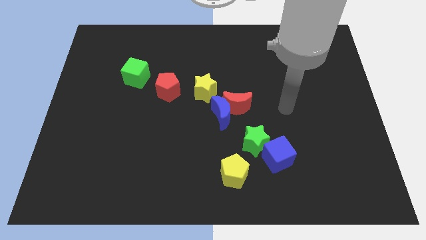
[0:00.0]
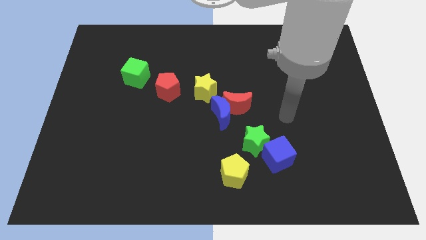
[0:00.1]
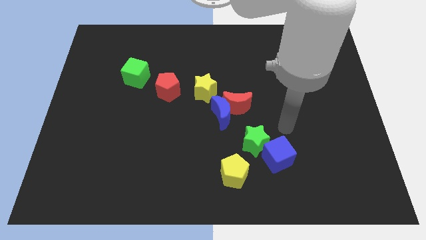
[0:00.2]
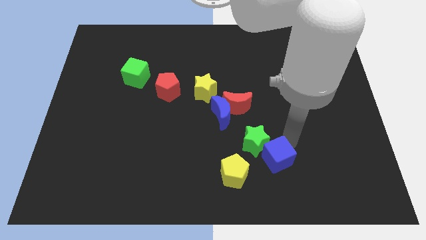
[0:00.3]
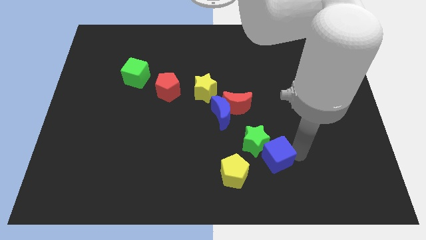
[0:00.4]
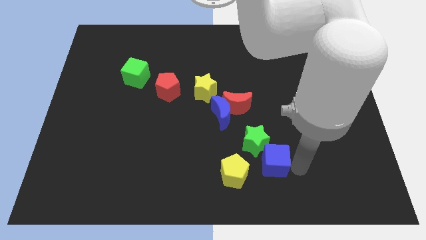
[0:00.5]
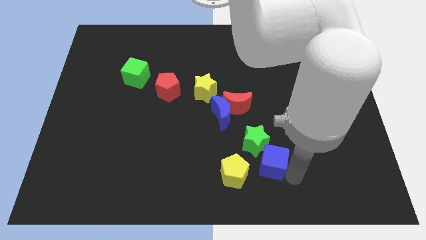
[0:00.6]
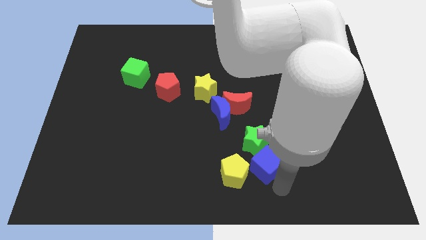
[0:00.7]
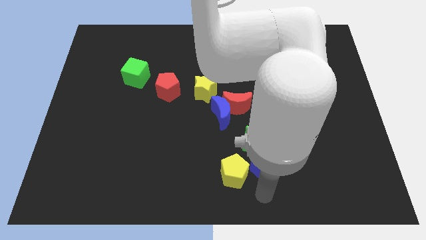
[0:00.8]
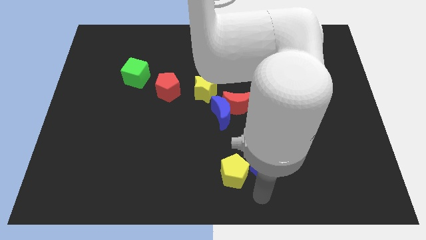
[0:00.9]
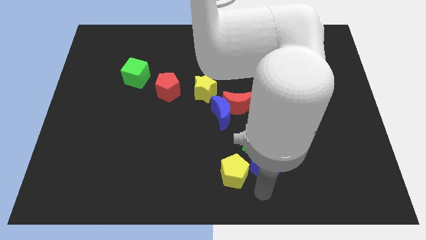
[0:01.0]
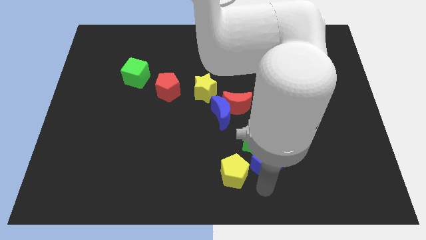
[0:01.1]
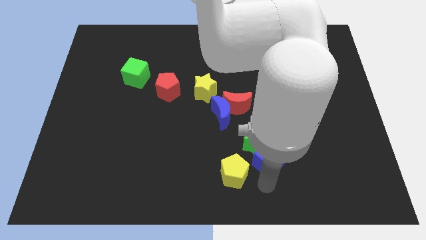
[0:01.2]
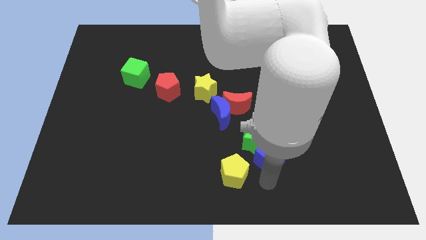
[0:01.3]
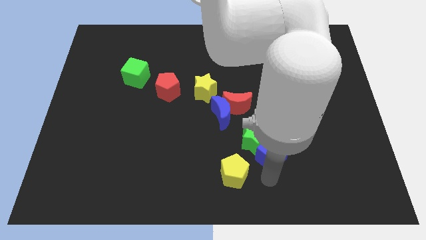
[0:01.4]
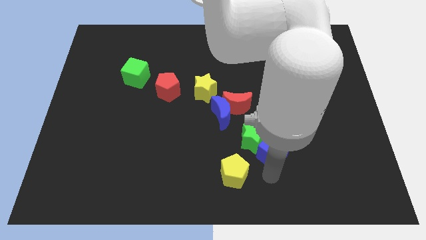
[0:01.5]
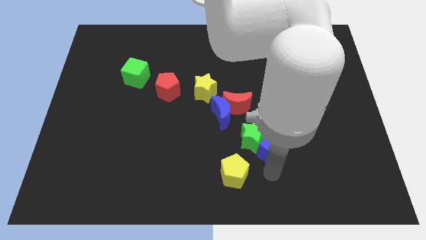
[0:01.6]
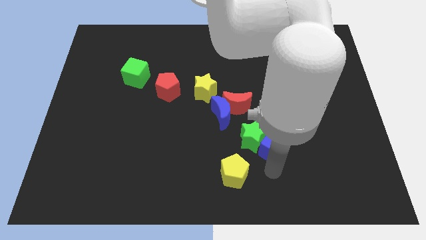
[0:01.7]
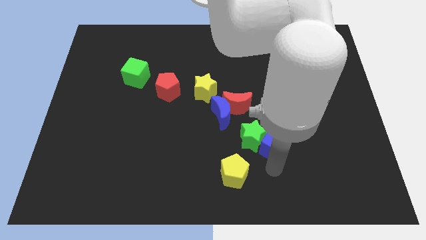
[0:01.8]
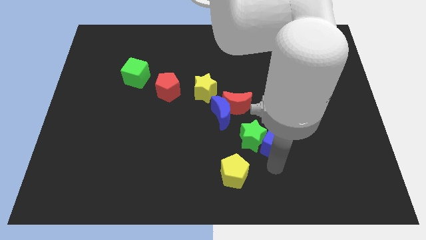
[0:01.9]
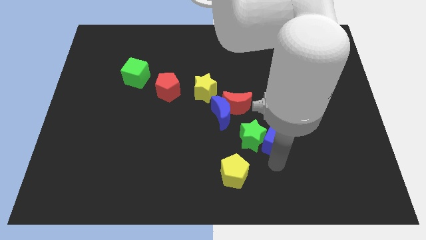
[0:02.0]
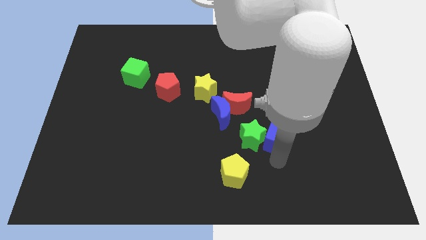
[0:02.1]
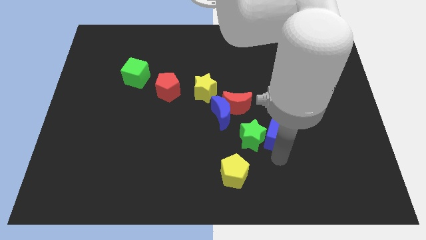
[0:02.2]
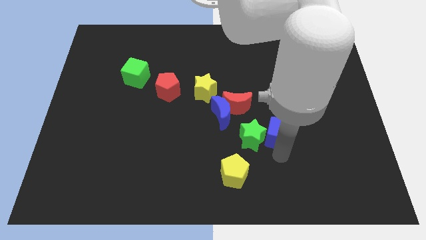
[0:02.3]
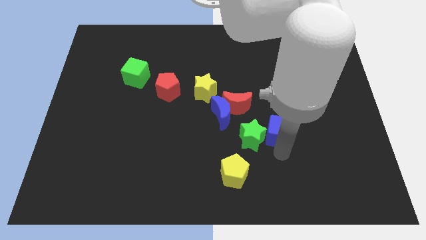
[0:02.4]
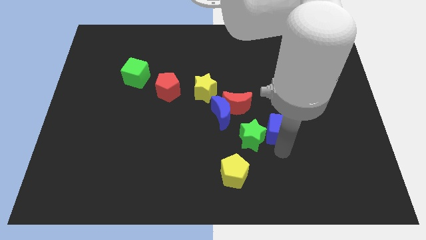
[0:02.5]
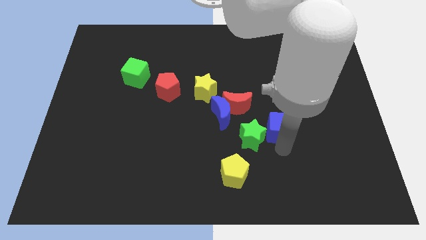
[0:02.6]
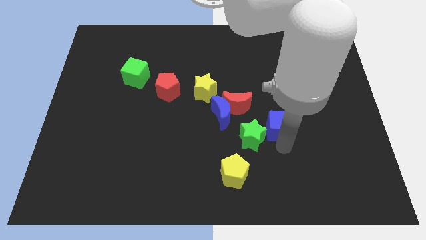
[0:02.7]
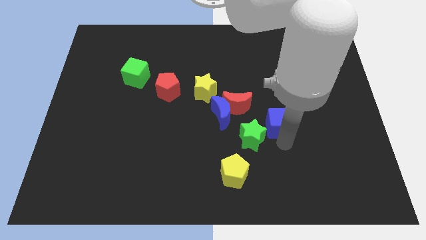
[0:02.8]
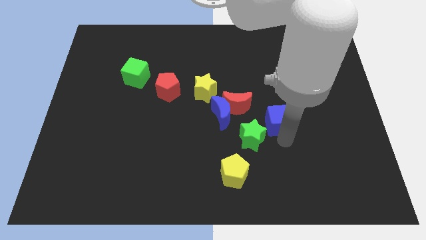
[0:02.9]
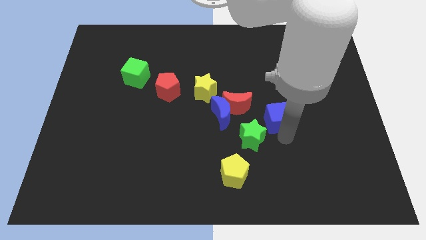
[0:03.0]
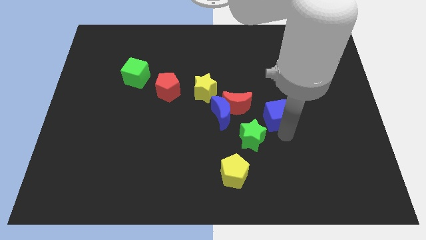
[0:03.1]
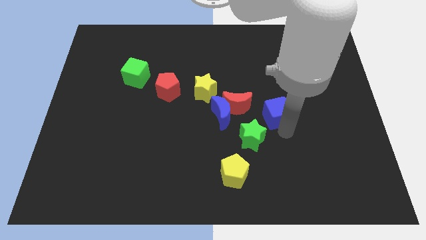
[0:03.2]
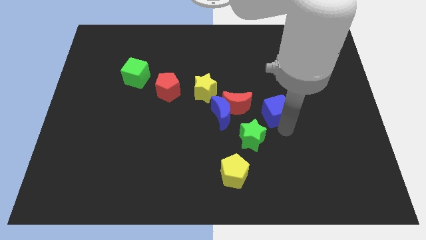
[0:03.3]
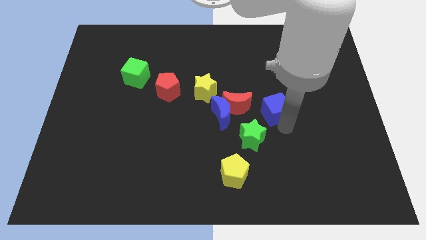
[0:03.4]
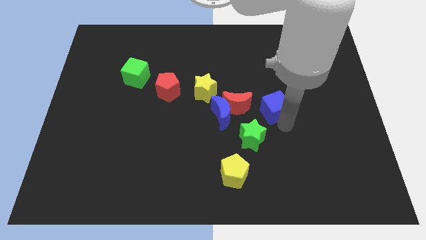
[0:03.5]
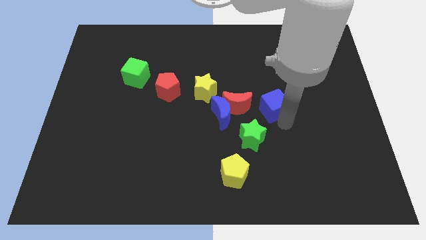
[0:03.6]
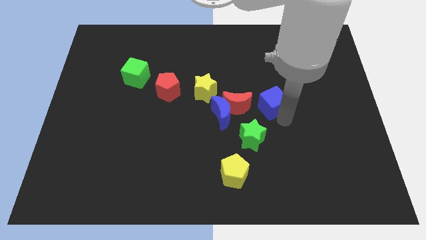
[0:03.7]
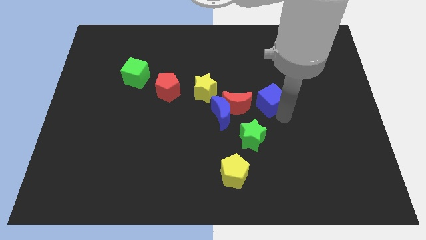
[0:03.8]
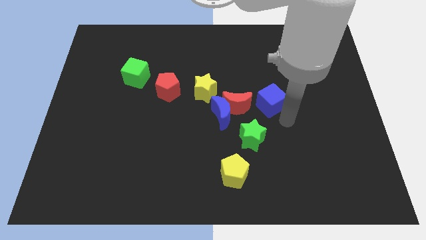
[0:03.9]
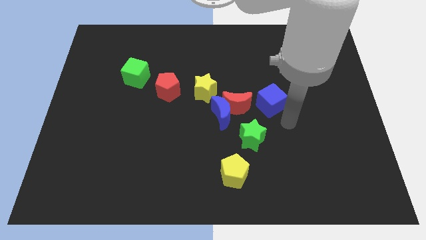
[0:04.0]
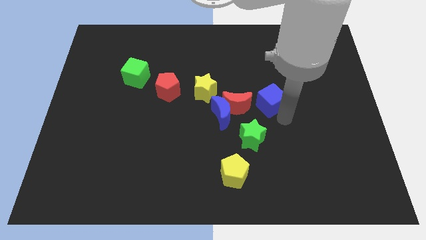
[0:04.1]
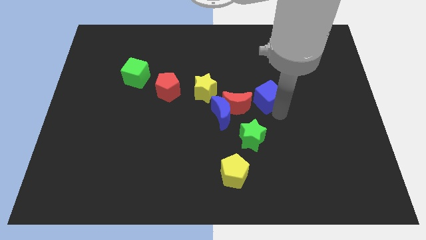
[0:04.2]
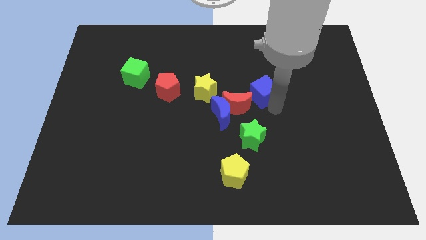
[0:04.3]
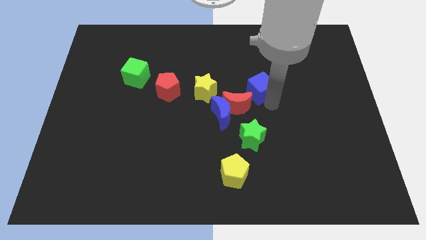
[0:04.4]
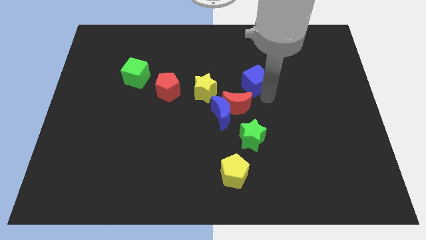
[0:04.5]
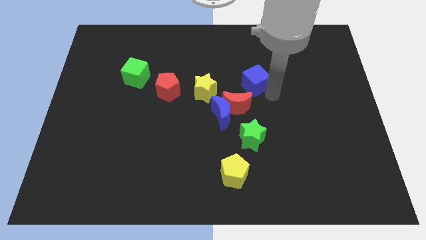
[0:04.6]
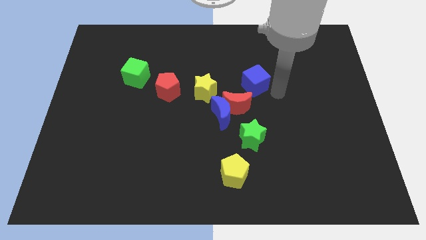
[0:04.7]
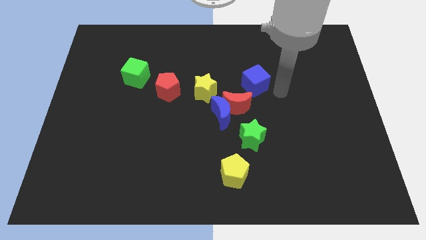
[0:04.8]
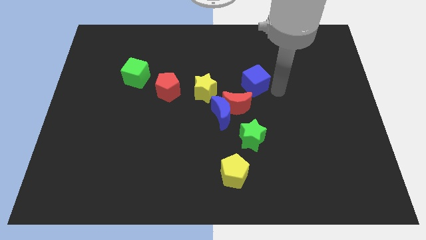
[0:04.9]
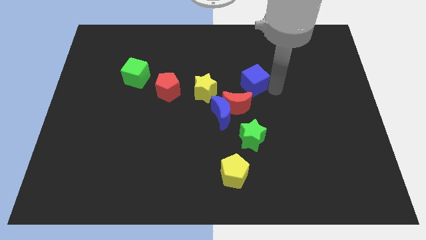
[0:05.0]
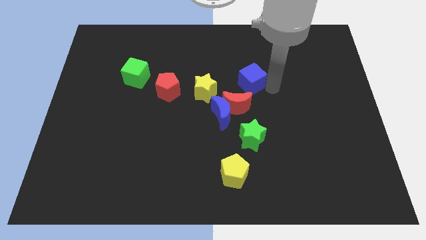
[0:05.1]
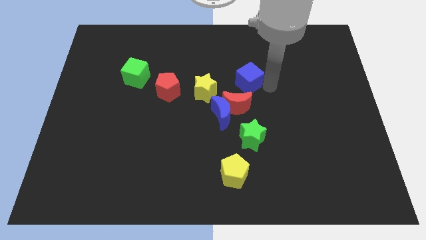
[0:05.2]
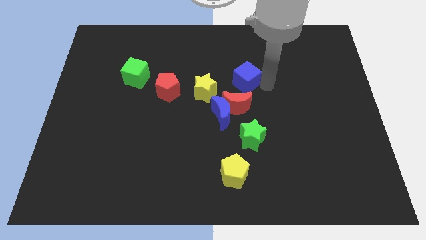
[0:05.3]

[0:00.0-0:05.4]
move the blue cube to the top right side of the yellow star

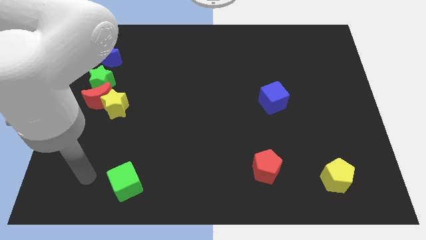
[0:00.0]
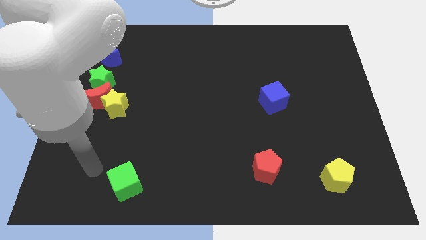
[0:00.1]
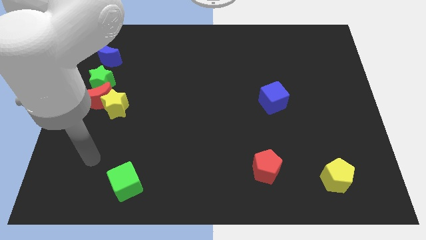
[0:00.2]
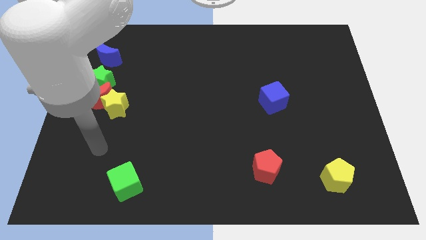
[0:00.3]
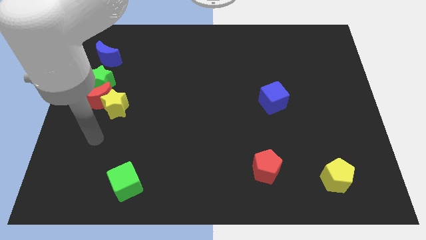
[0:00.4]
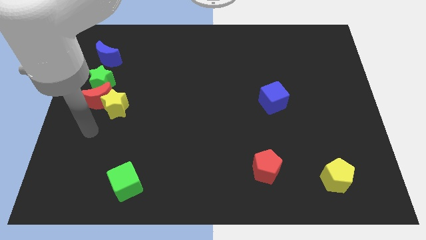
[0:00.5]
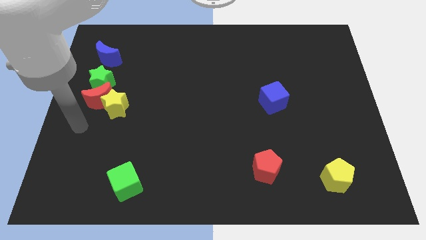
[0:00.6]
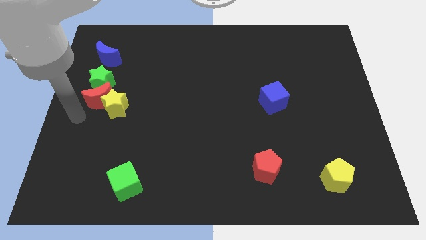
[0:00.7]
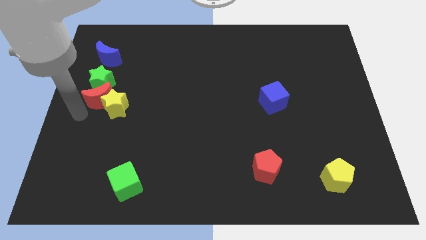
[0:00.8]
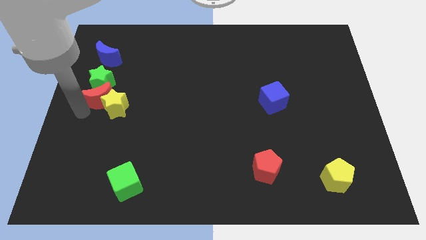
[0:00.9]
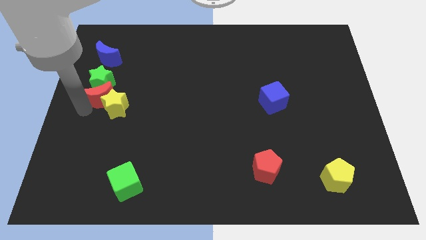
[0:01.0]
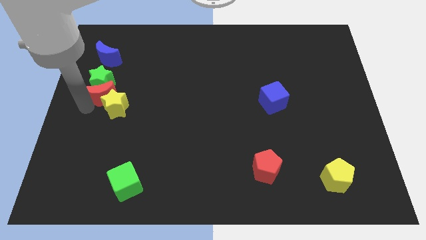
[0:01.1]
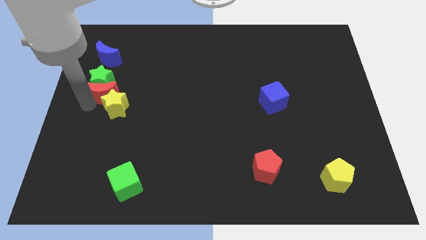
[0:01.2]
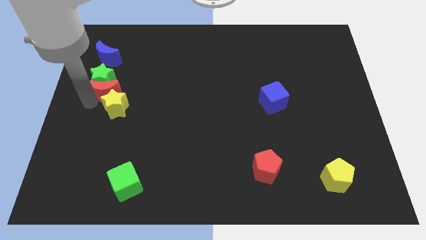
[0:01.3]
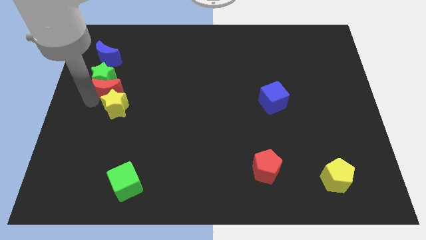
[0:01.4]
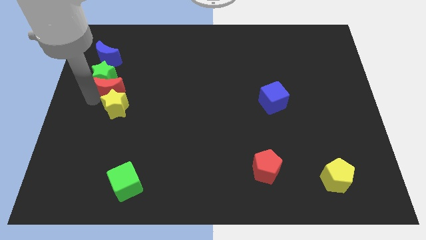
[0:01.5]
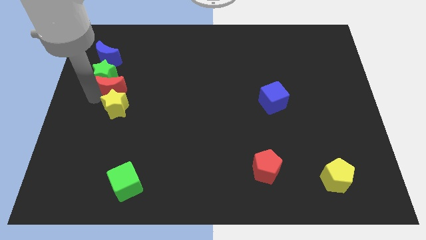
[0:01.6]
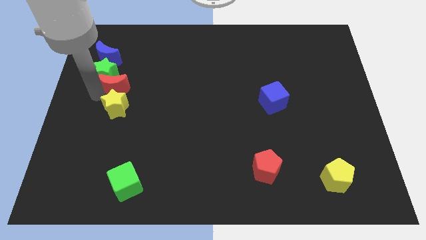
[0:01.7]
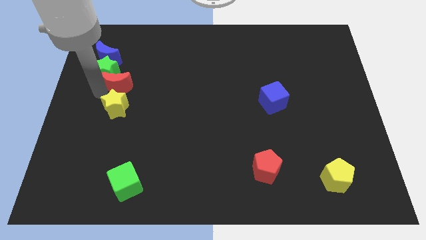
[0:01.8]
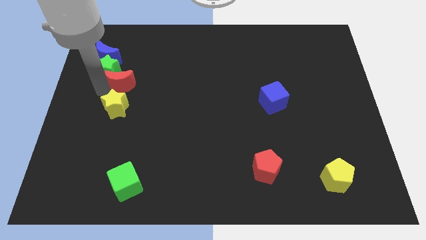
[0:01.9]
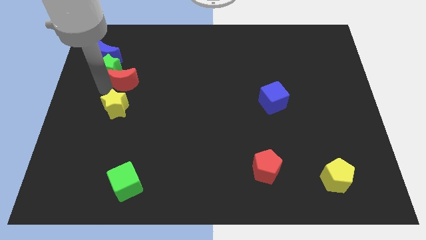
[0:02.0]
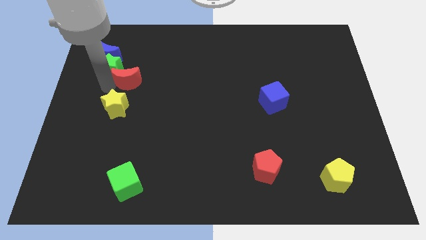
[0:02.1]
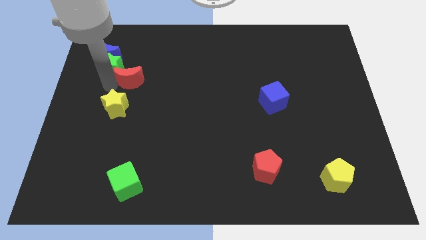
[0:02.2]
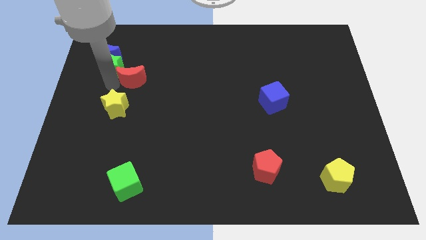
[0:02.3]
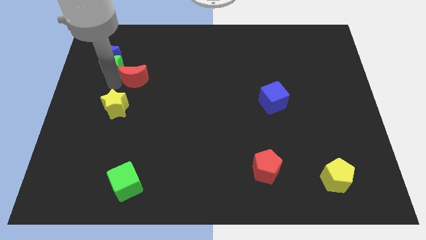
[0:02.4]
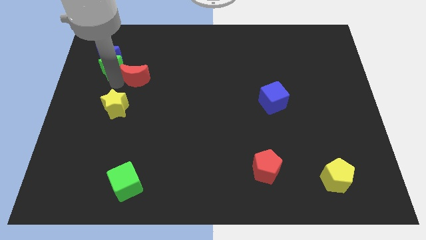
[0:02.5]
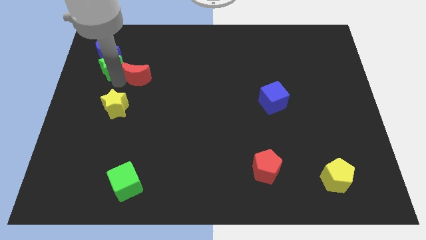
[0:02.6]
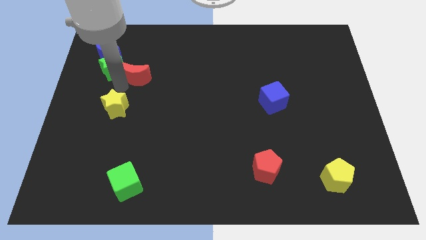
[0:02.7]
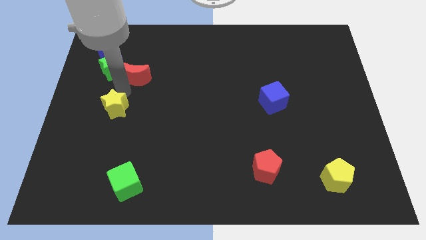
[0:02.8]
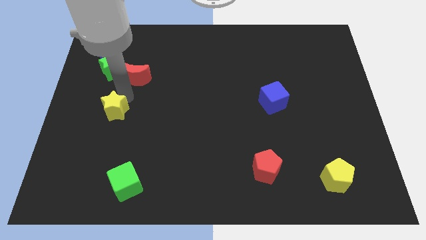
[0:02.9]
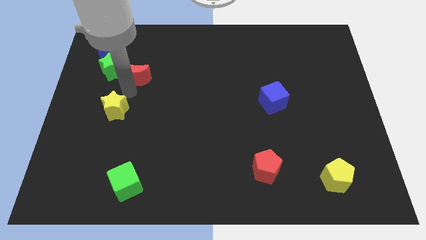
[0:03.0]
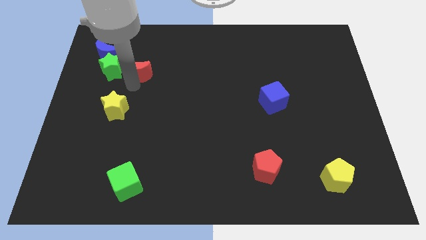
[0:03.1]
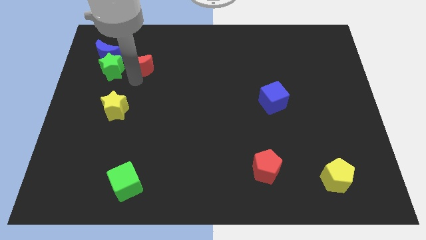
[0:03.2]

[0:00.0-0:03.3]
slide the red moon to the right of the blue moon
